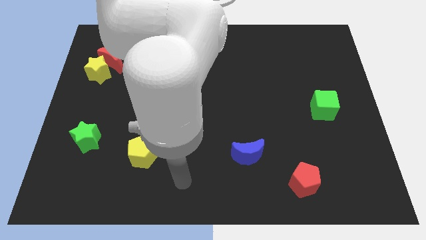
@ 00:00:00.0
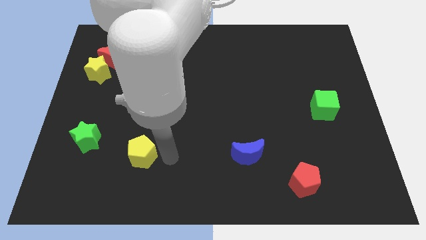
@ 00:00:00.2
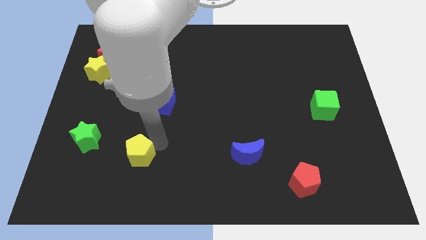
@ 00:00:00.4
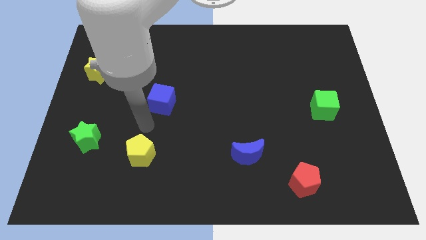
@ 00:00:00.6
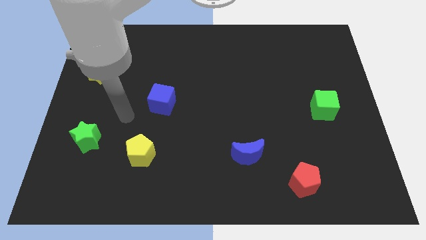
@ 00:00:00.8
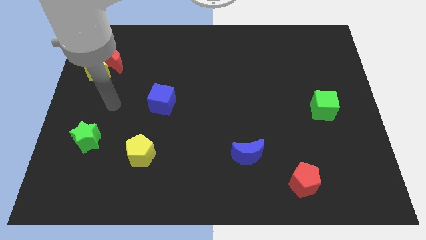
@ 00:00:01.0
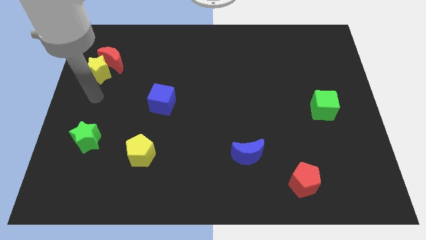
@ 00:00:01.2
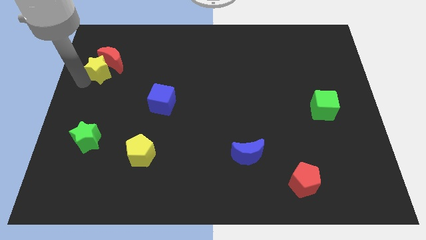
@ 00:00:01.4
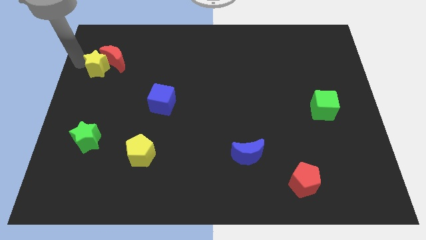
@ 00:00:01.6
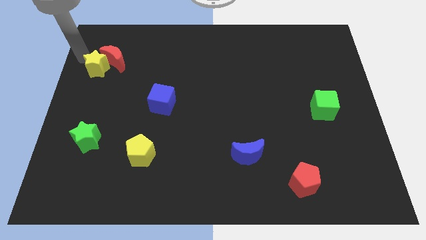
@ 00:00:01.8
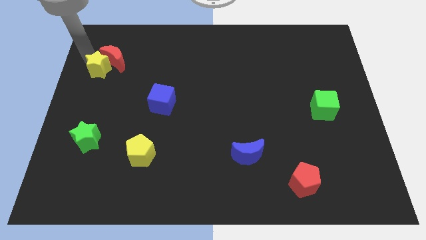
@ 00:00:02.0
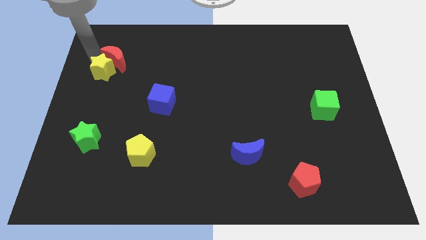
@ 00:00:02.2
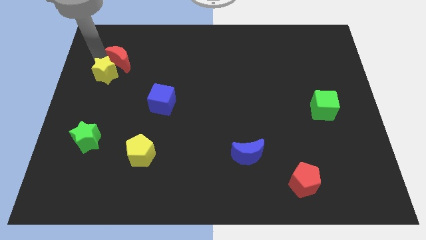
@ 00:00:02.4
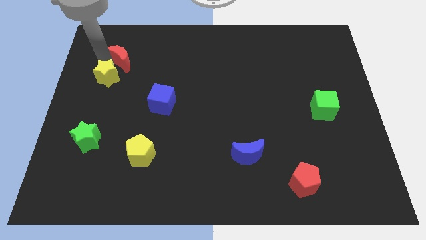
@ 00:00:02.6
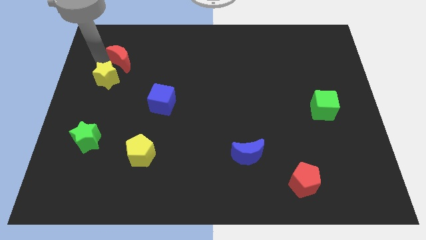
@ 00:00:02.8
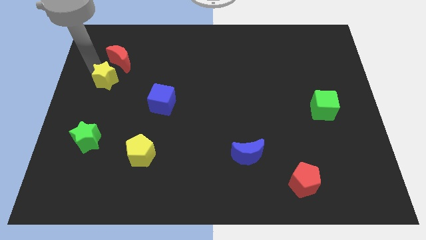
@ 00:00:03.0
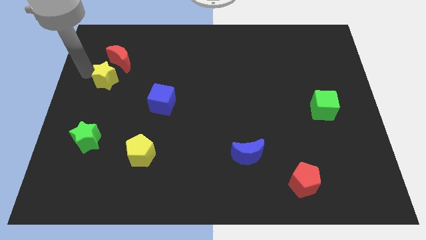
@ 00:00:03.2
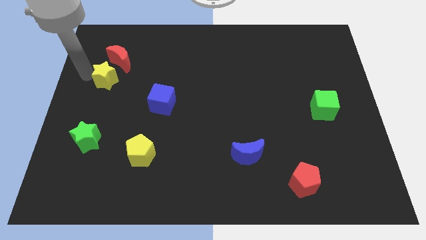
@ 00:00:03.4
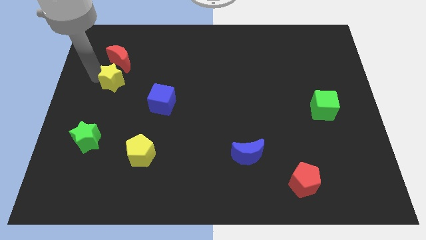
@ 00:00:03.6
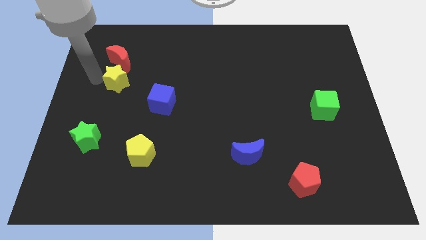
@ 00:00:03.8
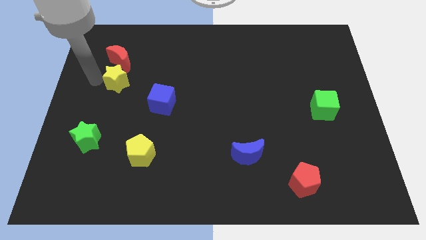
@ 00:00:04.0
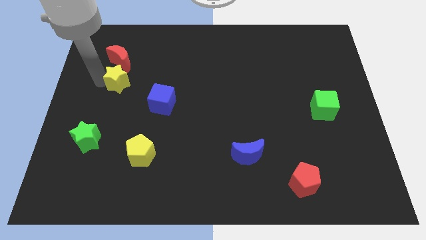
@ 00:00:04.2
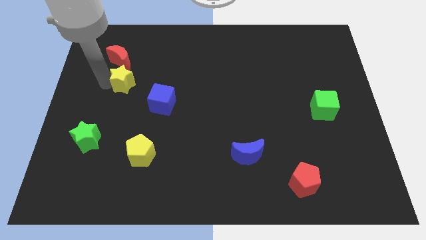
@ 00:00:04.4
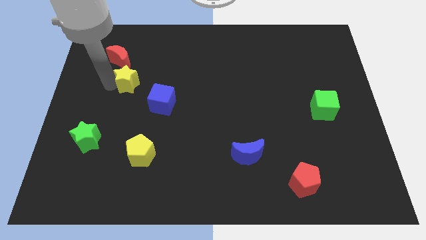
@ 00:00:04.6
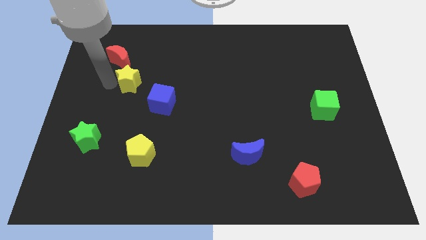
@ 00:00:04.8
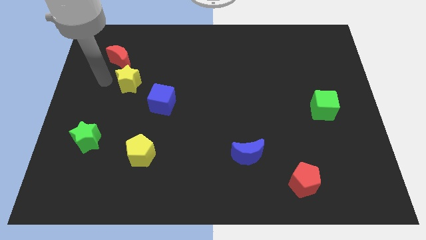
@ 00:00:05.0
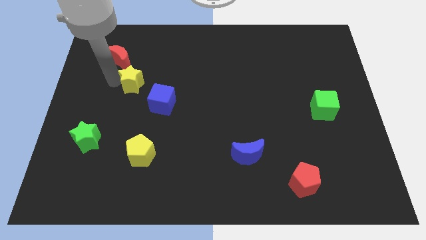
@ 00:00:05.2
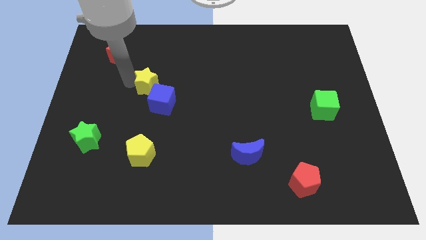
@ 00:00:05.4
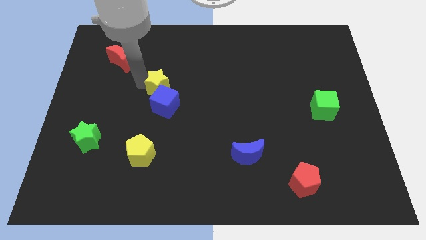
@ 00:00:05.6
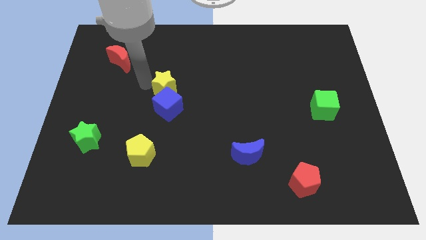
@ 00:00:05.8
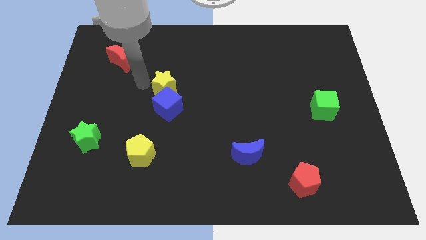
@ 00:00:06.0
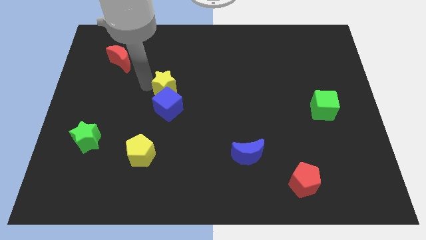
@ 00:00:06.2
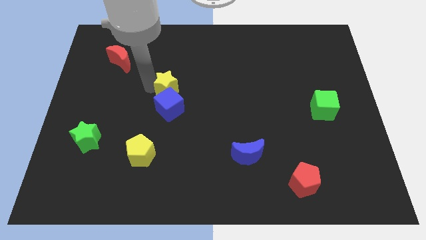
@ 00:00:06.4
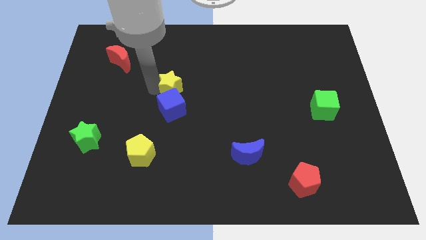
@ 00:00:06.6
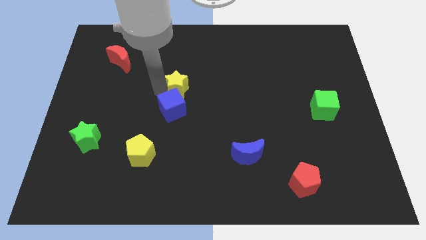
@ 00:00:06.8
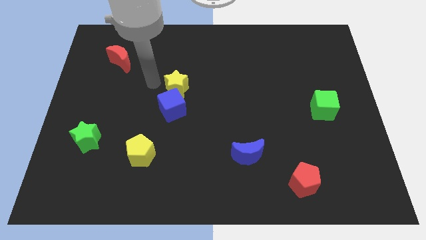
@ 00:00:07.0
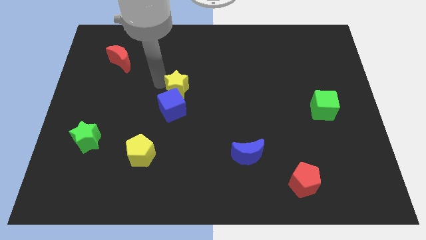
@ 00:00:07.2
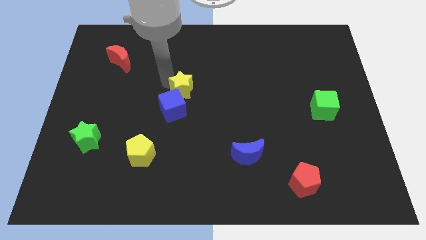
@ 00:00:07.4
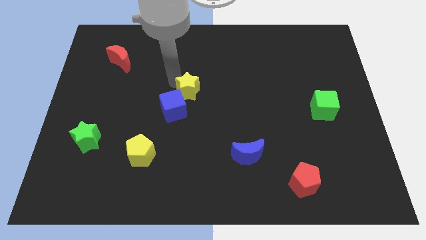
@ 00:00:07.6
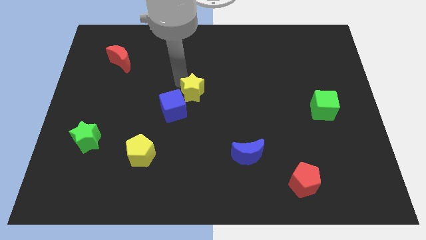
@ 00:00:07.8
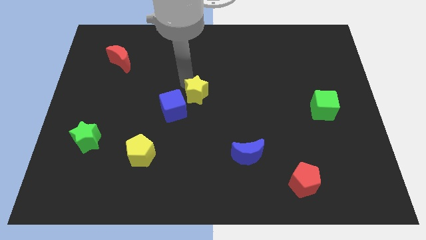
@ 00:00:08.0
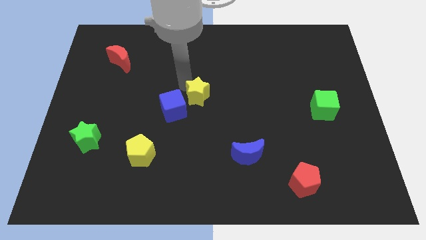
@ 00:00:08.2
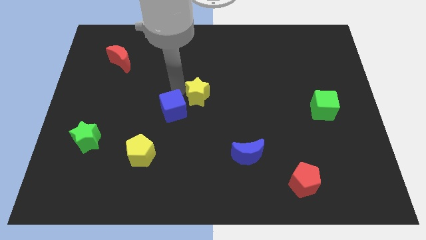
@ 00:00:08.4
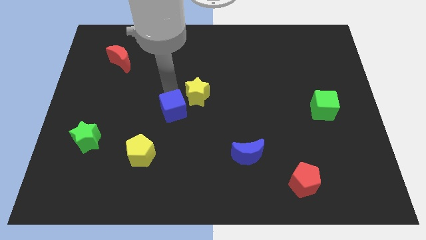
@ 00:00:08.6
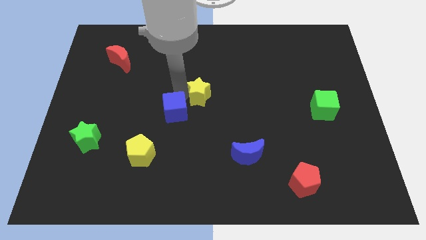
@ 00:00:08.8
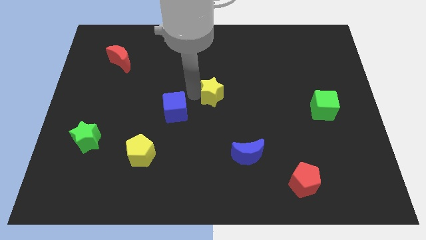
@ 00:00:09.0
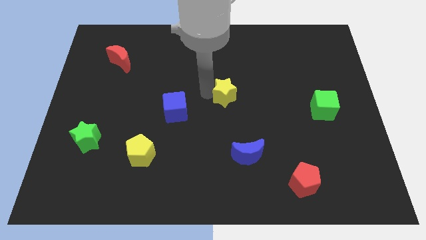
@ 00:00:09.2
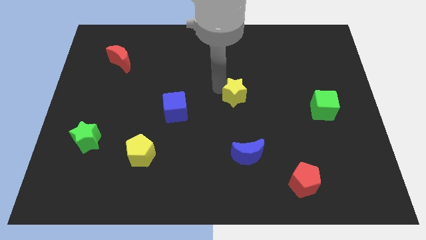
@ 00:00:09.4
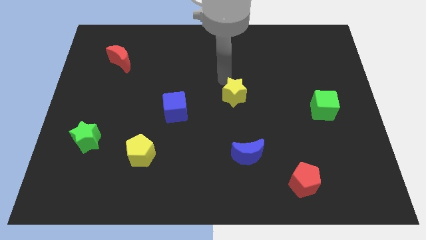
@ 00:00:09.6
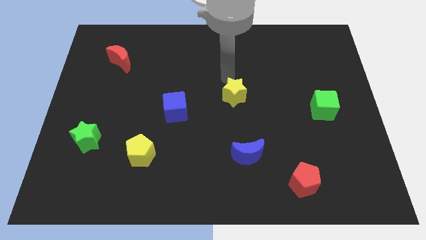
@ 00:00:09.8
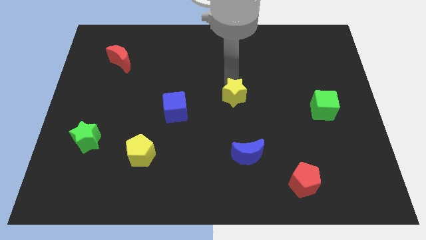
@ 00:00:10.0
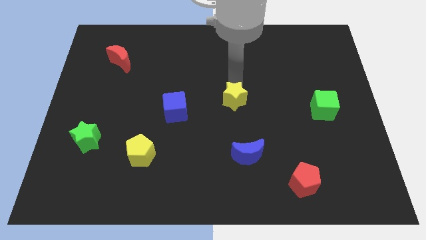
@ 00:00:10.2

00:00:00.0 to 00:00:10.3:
push the yellow star to the top side of the blue moon

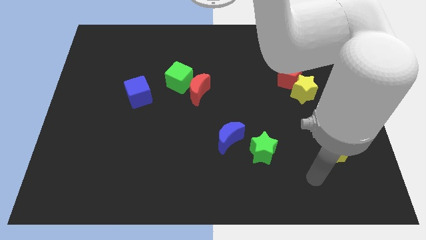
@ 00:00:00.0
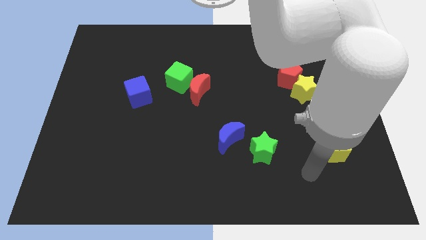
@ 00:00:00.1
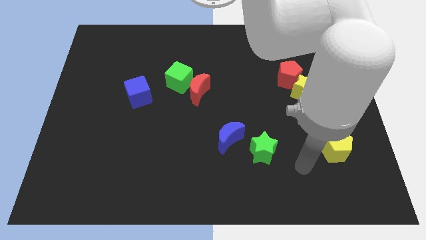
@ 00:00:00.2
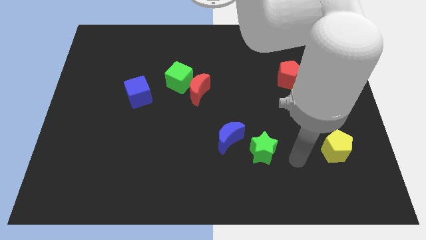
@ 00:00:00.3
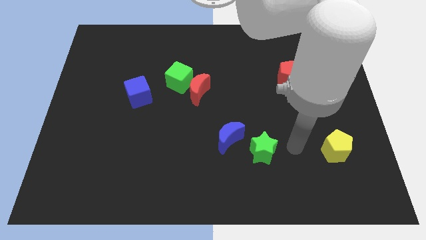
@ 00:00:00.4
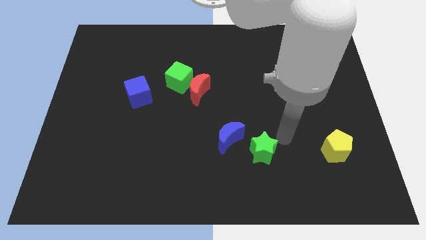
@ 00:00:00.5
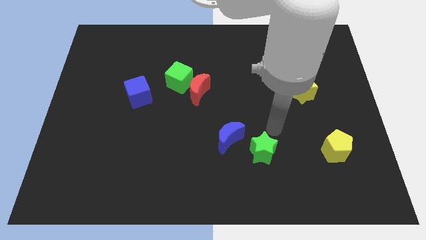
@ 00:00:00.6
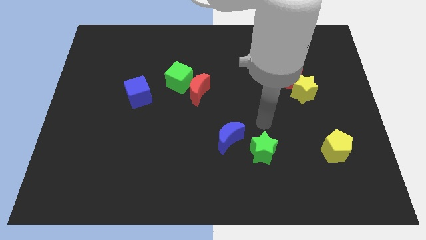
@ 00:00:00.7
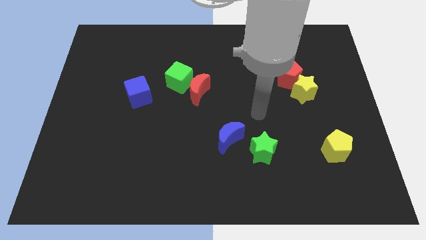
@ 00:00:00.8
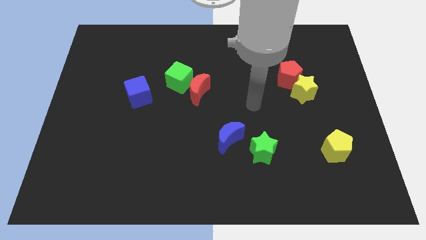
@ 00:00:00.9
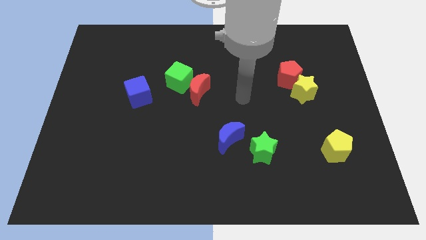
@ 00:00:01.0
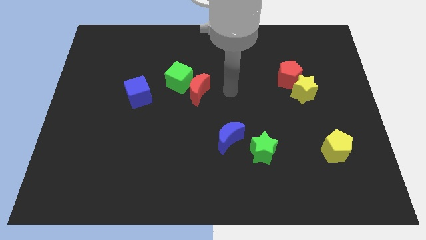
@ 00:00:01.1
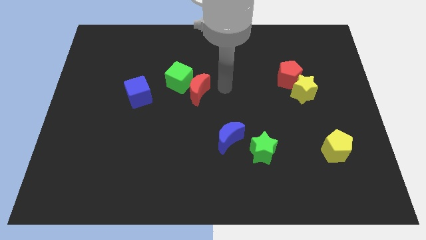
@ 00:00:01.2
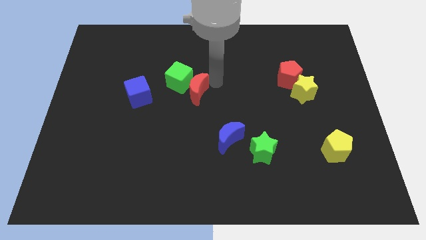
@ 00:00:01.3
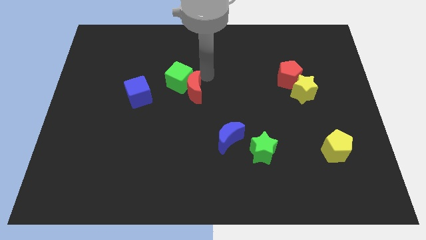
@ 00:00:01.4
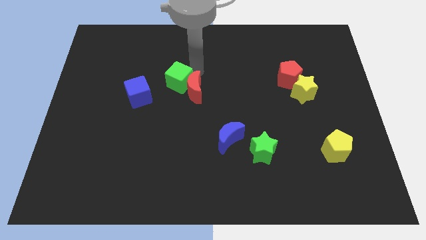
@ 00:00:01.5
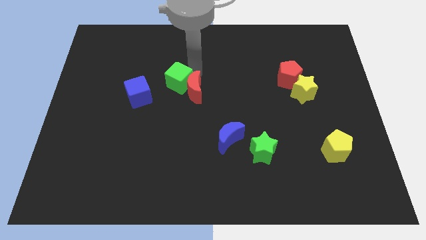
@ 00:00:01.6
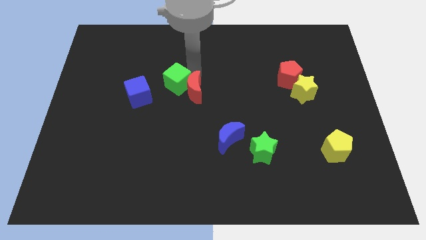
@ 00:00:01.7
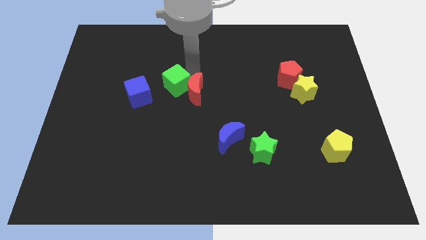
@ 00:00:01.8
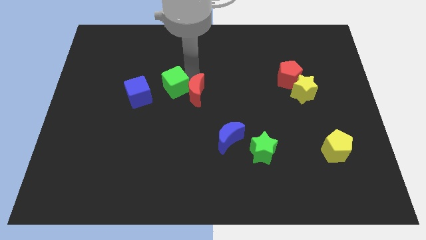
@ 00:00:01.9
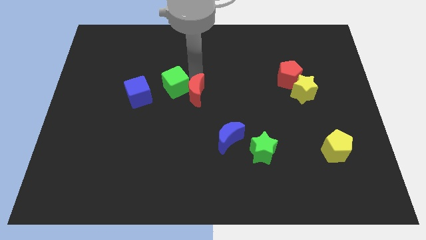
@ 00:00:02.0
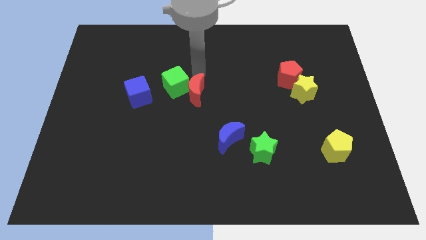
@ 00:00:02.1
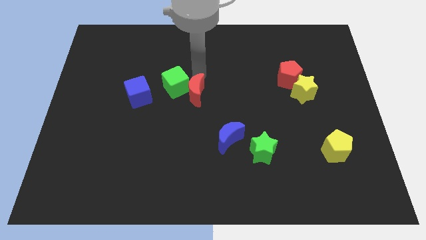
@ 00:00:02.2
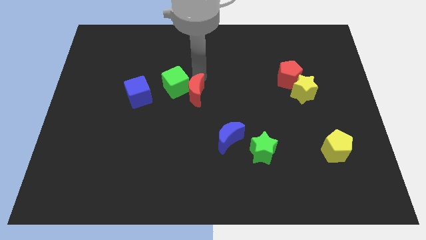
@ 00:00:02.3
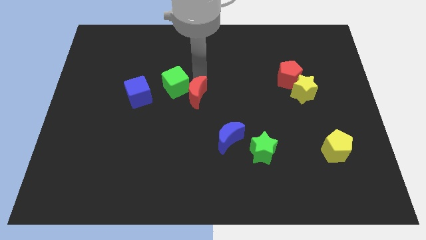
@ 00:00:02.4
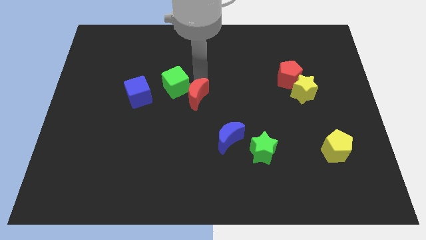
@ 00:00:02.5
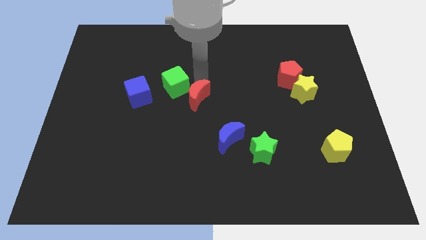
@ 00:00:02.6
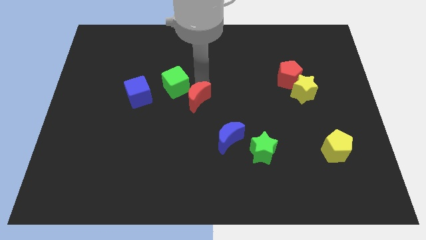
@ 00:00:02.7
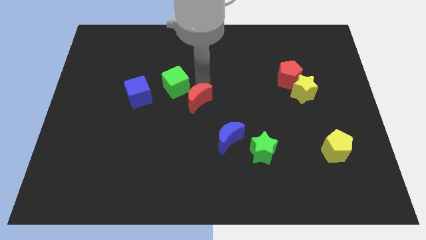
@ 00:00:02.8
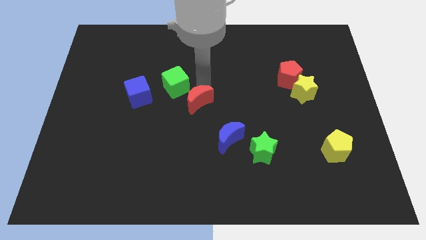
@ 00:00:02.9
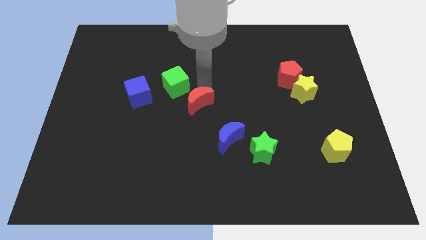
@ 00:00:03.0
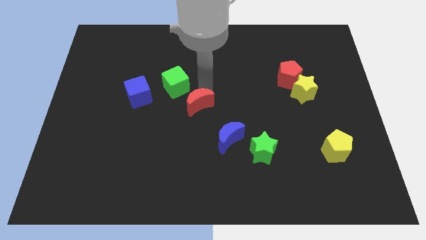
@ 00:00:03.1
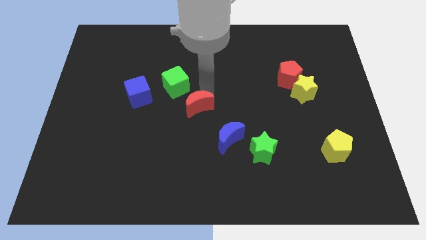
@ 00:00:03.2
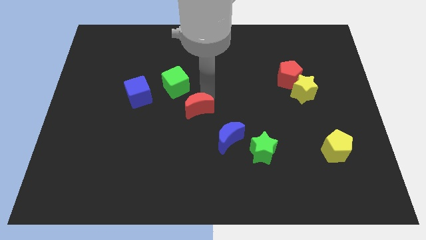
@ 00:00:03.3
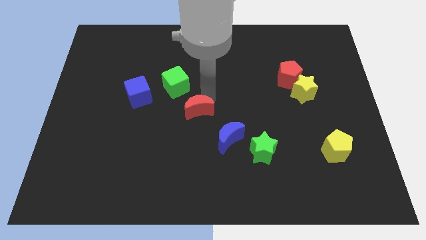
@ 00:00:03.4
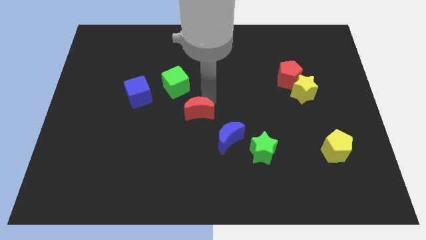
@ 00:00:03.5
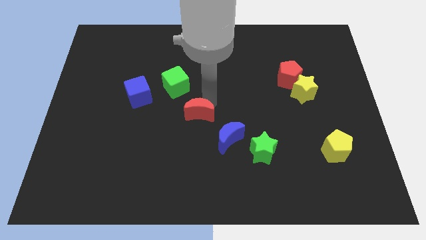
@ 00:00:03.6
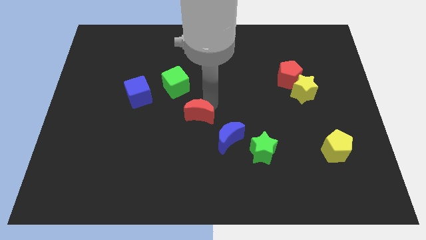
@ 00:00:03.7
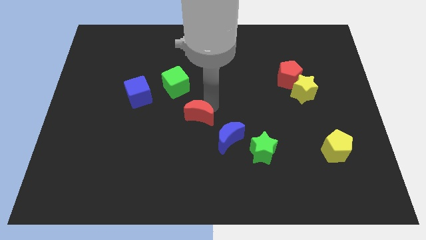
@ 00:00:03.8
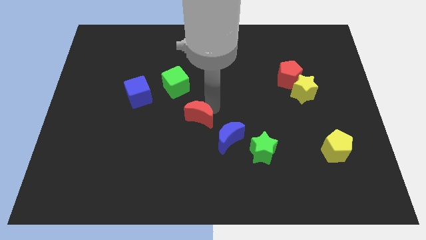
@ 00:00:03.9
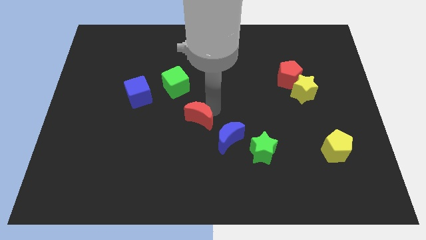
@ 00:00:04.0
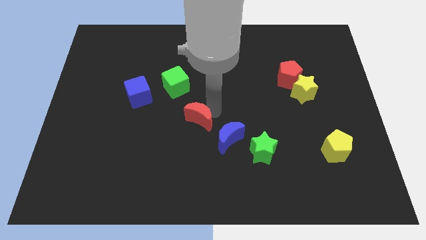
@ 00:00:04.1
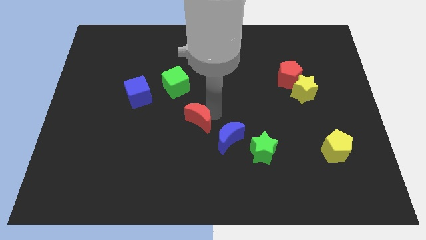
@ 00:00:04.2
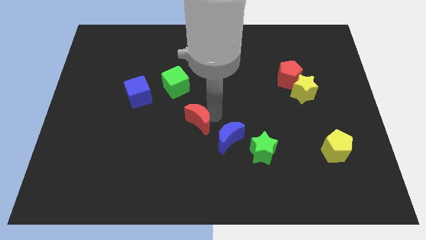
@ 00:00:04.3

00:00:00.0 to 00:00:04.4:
slide the red moon to the left side of the blue moon
